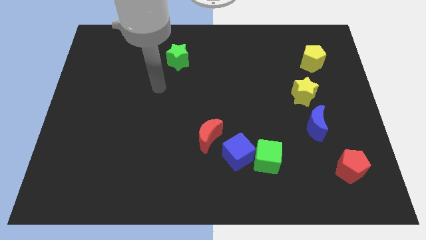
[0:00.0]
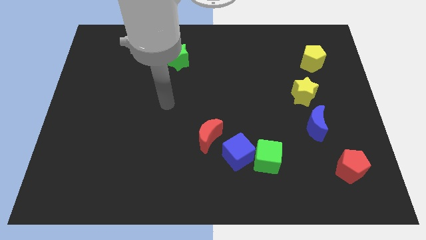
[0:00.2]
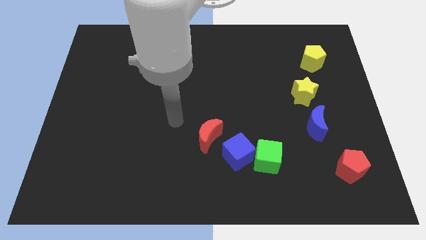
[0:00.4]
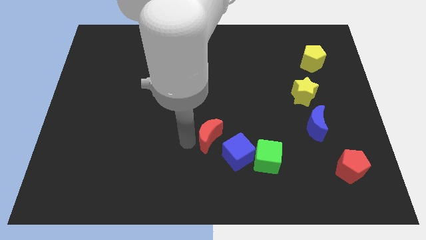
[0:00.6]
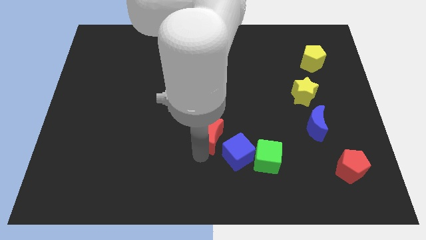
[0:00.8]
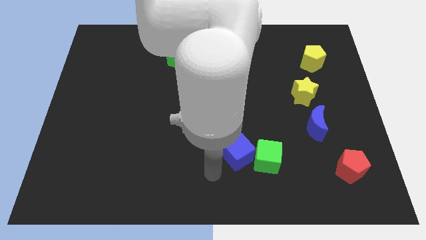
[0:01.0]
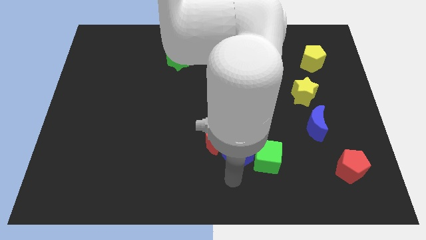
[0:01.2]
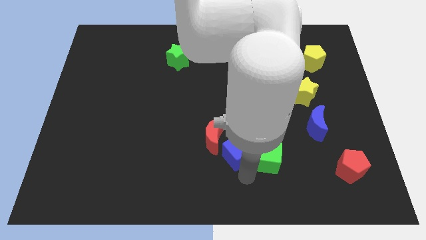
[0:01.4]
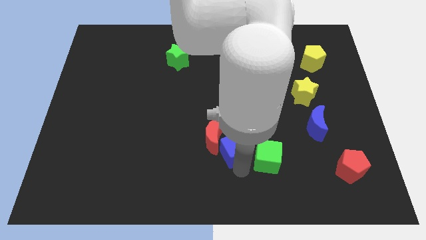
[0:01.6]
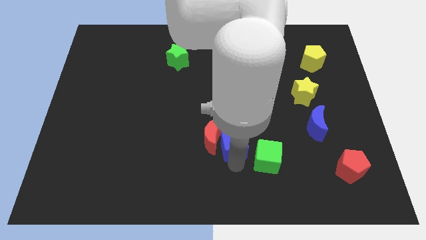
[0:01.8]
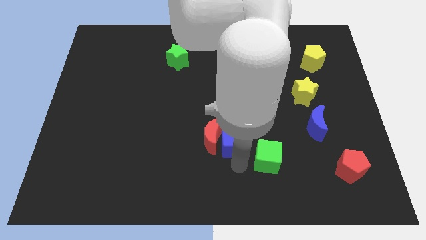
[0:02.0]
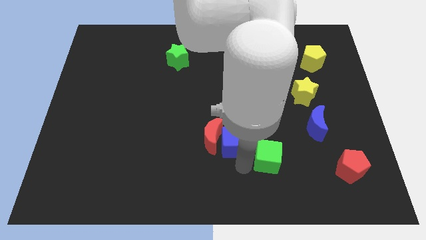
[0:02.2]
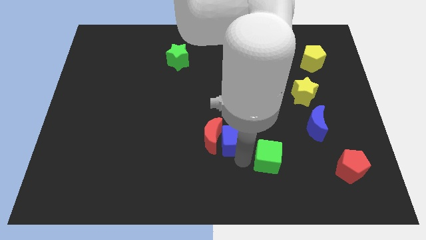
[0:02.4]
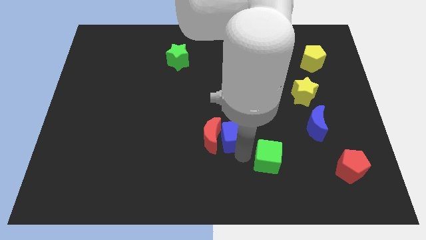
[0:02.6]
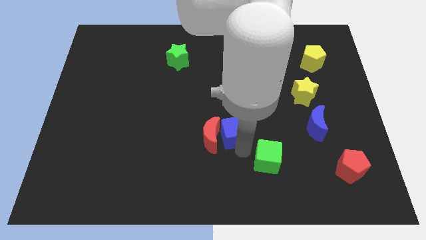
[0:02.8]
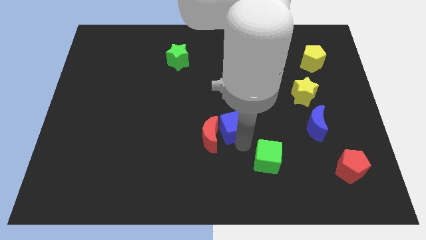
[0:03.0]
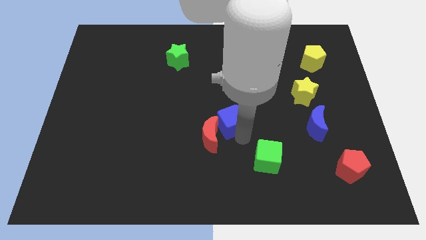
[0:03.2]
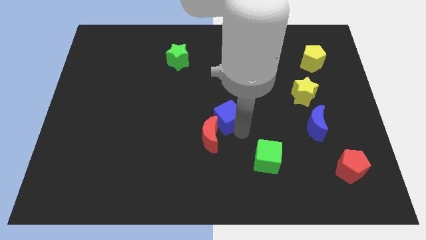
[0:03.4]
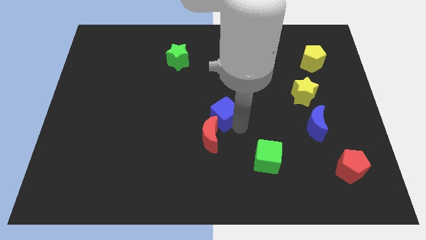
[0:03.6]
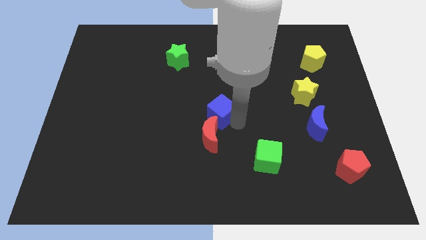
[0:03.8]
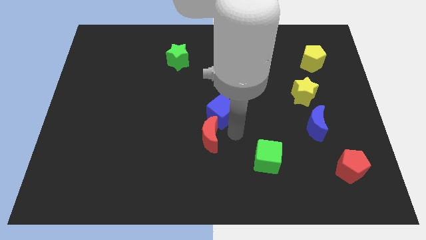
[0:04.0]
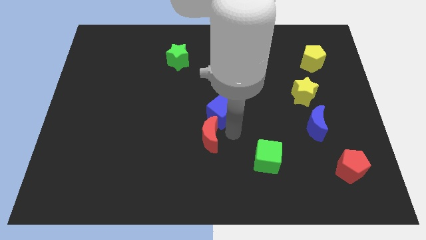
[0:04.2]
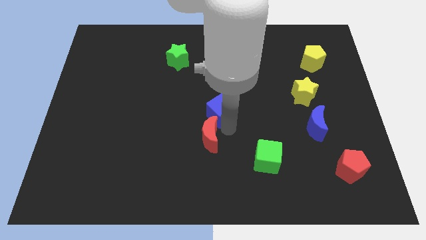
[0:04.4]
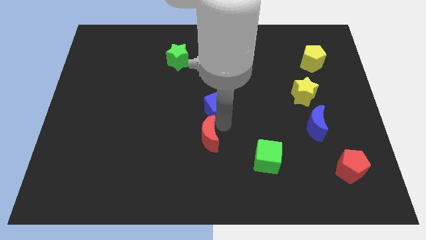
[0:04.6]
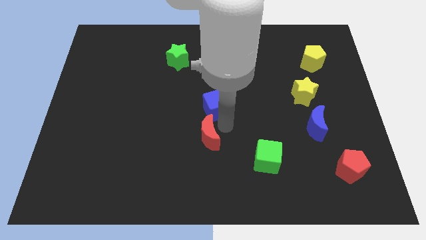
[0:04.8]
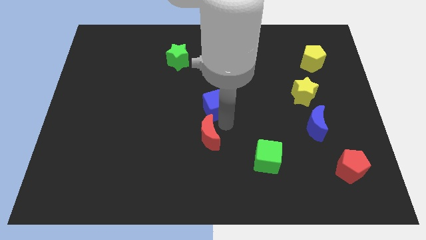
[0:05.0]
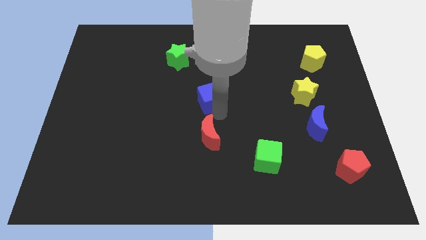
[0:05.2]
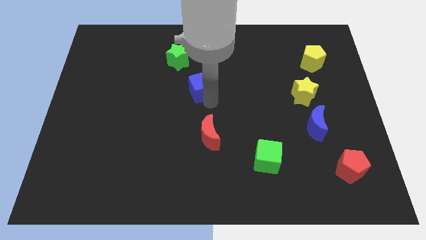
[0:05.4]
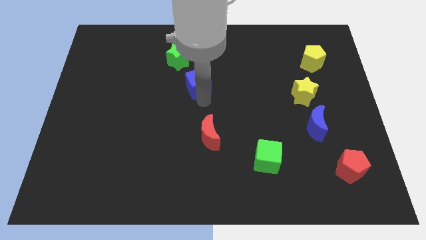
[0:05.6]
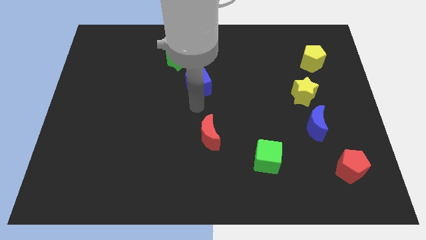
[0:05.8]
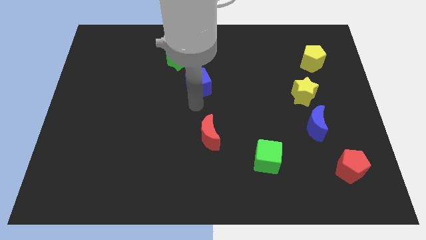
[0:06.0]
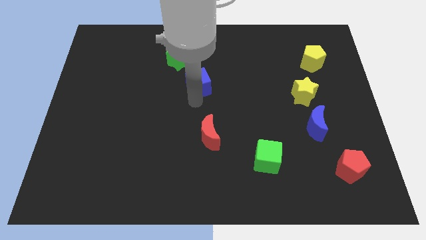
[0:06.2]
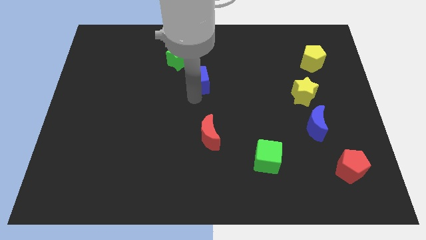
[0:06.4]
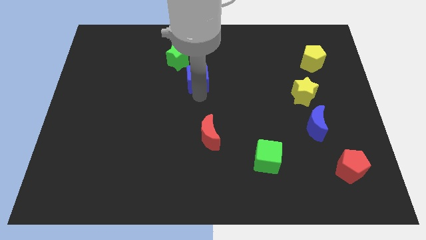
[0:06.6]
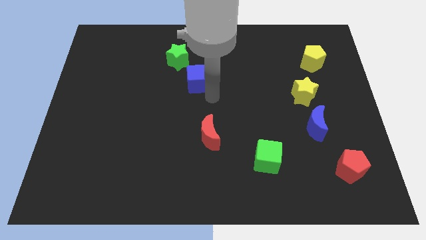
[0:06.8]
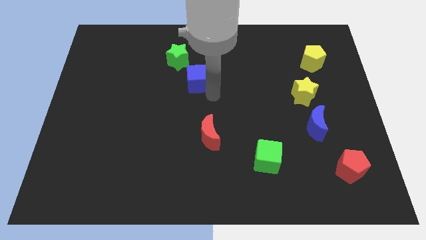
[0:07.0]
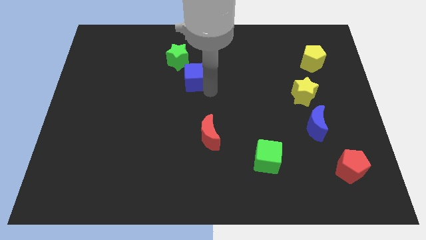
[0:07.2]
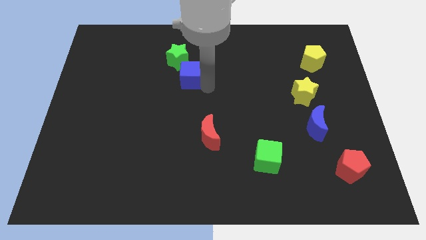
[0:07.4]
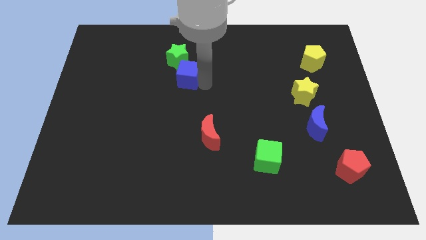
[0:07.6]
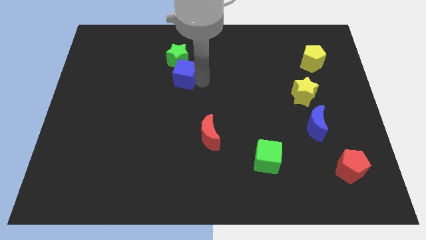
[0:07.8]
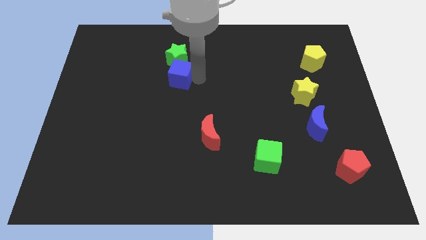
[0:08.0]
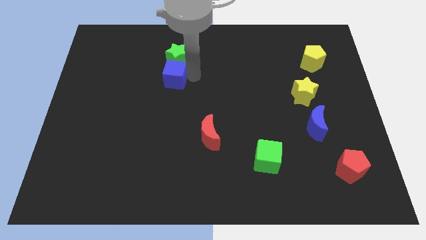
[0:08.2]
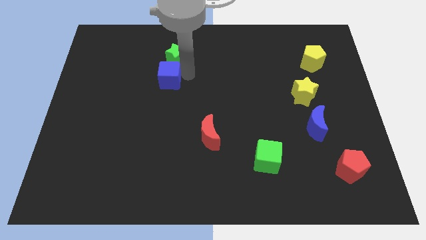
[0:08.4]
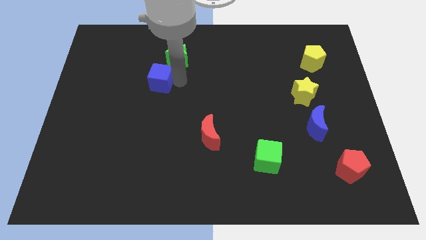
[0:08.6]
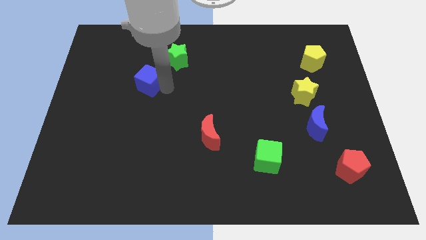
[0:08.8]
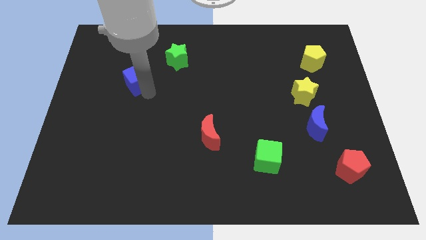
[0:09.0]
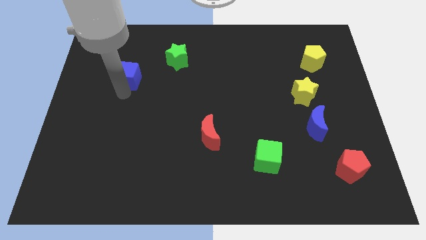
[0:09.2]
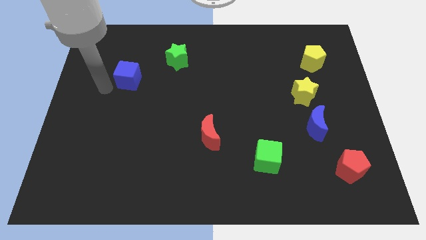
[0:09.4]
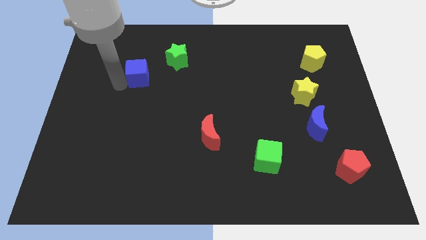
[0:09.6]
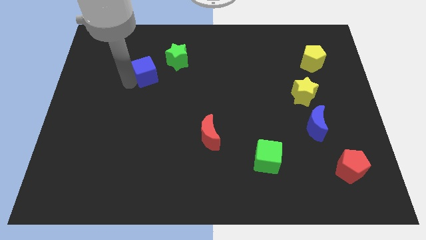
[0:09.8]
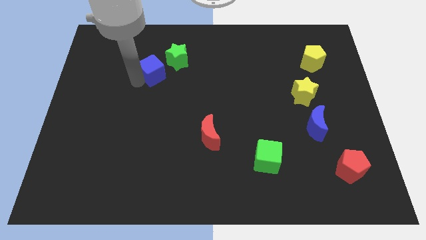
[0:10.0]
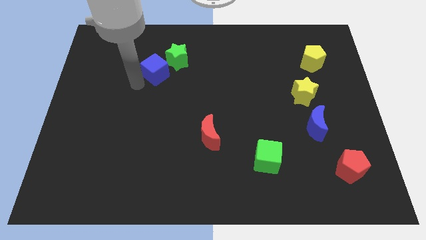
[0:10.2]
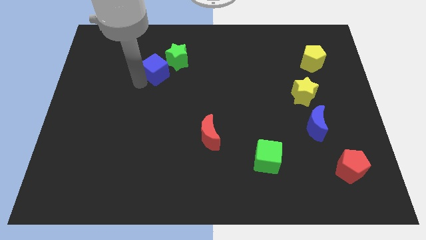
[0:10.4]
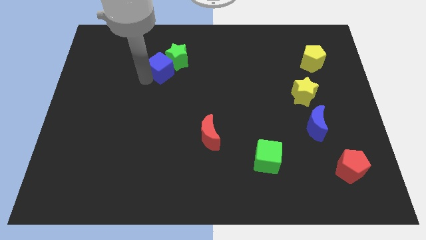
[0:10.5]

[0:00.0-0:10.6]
put the blue cube towards the green star
